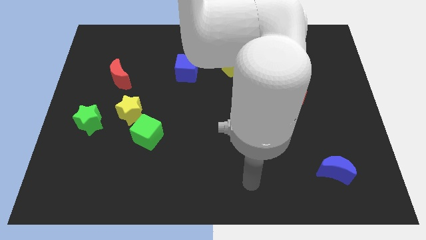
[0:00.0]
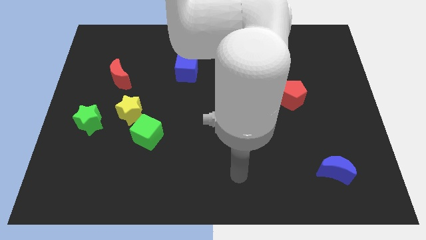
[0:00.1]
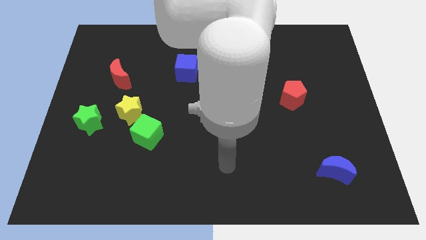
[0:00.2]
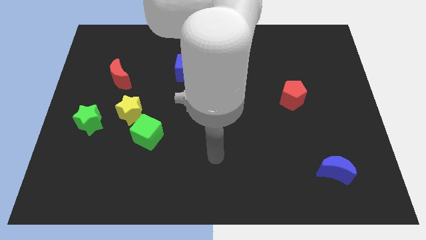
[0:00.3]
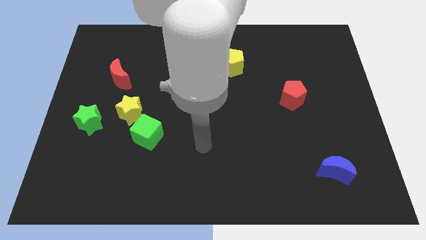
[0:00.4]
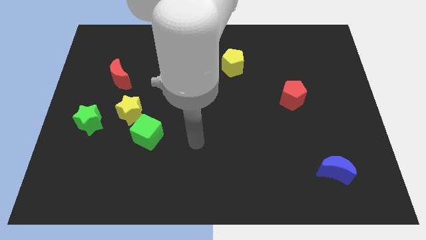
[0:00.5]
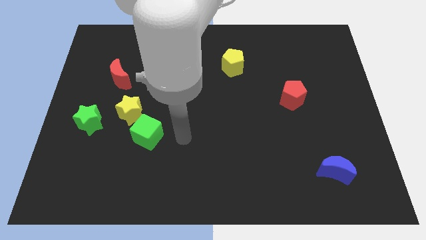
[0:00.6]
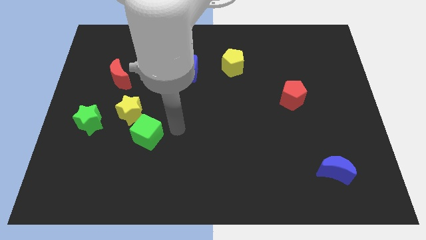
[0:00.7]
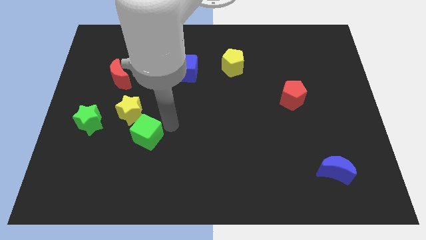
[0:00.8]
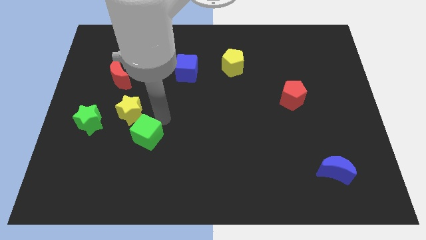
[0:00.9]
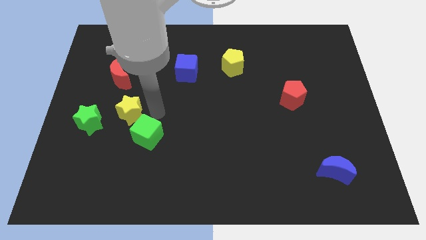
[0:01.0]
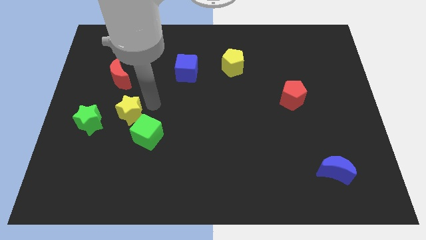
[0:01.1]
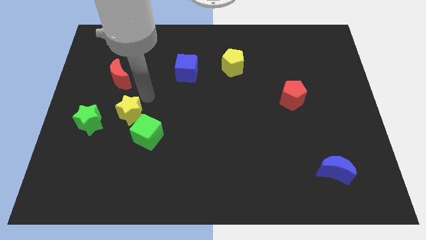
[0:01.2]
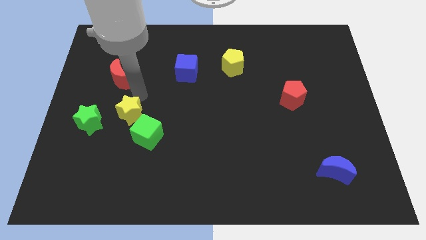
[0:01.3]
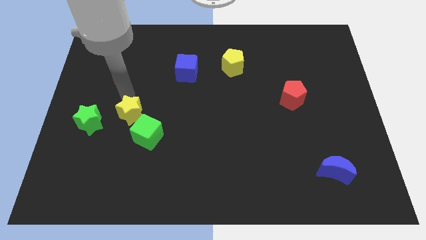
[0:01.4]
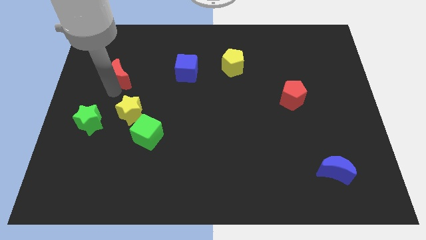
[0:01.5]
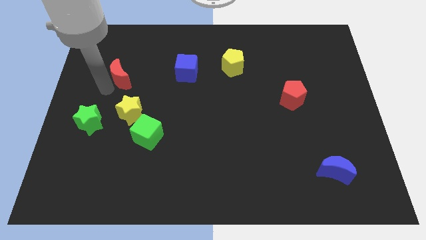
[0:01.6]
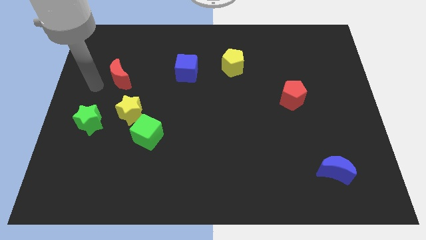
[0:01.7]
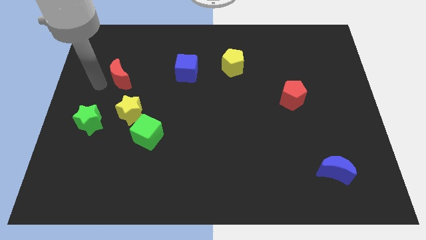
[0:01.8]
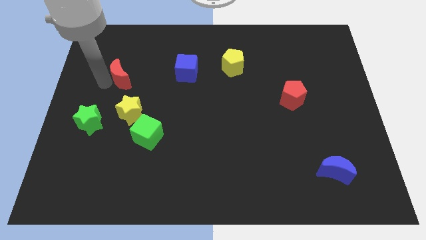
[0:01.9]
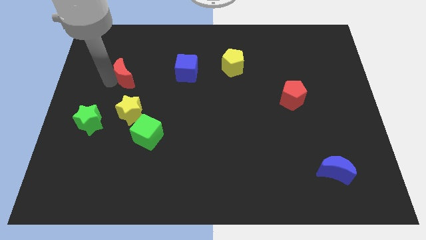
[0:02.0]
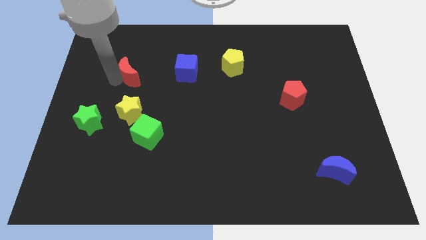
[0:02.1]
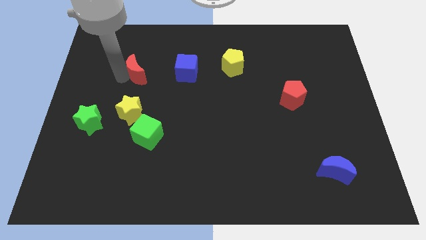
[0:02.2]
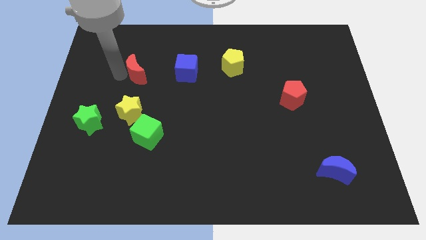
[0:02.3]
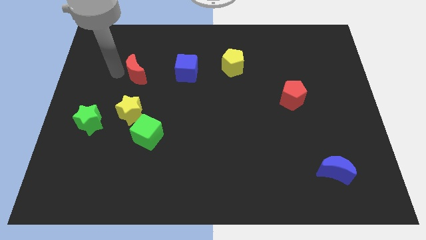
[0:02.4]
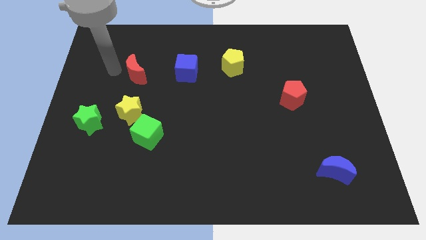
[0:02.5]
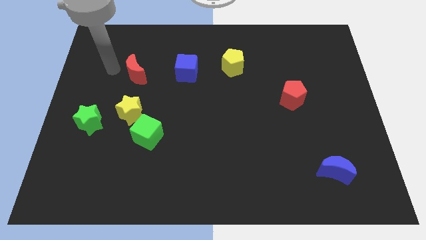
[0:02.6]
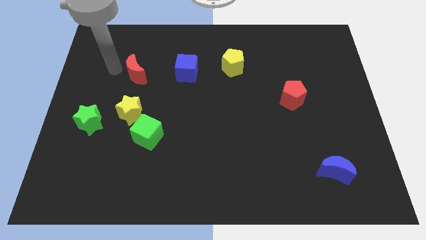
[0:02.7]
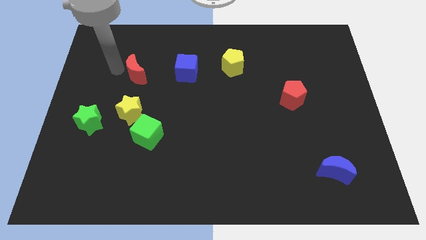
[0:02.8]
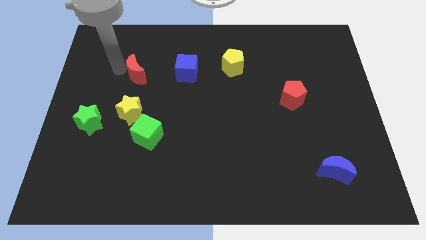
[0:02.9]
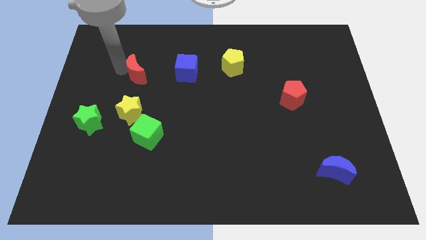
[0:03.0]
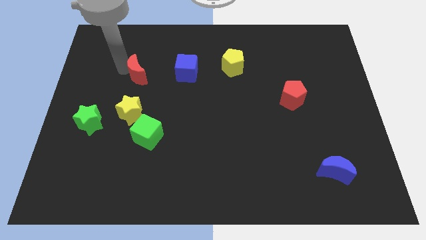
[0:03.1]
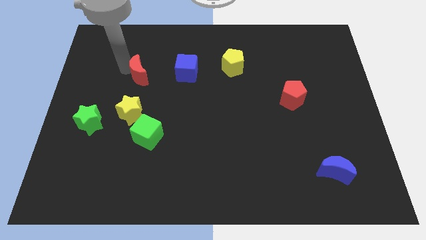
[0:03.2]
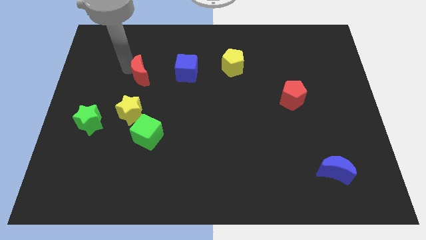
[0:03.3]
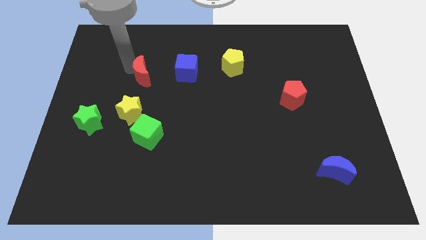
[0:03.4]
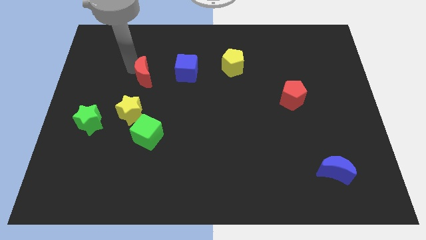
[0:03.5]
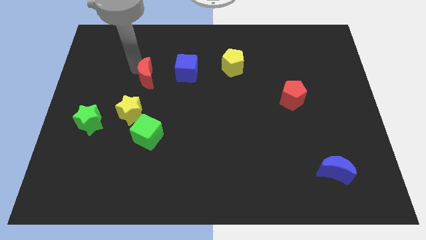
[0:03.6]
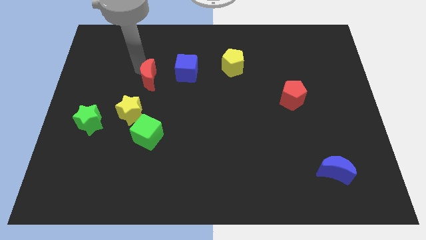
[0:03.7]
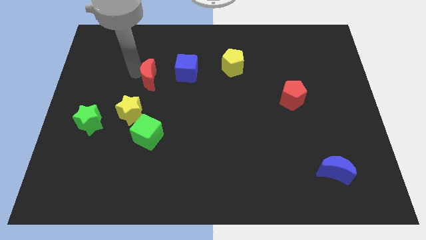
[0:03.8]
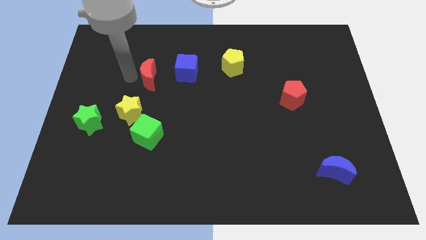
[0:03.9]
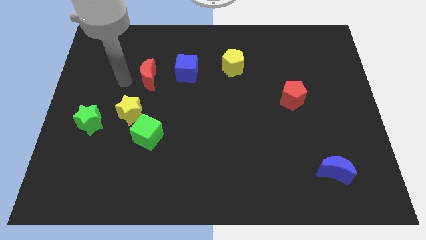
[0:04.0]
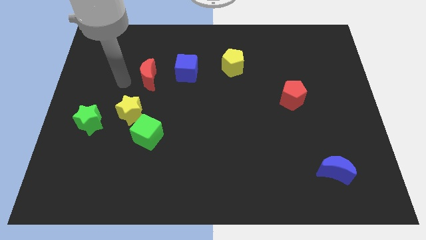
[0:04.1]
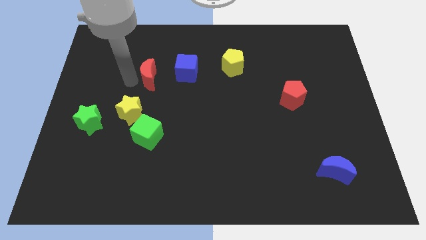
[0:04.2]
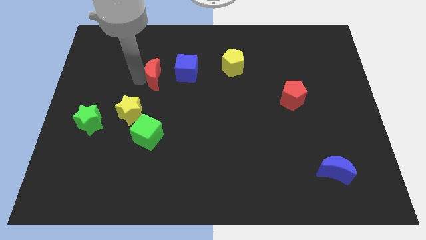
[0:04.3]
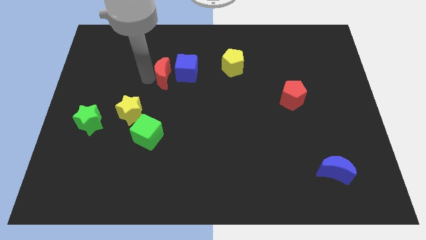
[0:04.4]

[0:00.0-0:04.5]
push the red moon next to the blue cube

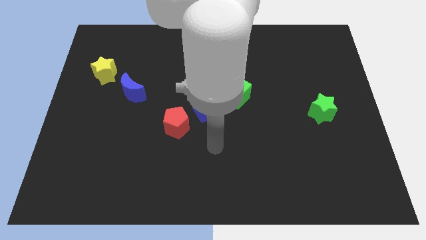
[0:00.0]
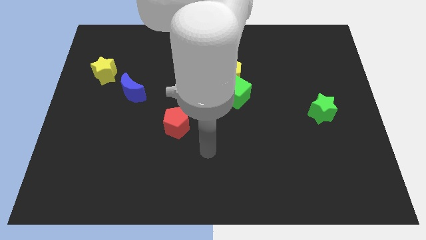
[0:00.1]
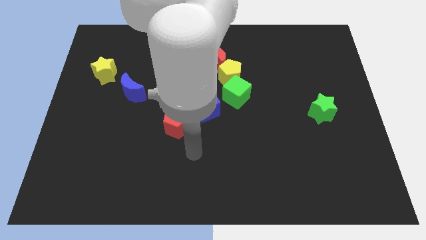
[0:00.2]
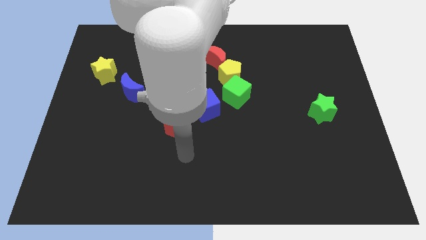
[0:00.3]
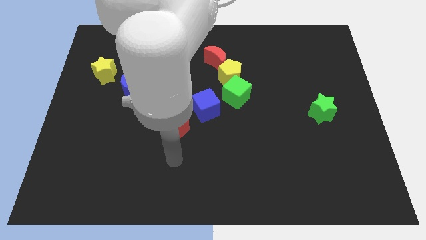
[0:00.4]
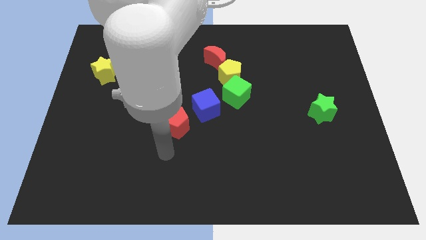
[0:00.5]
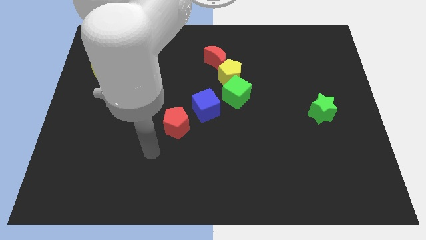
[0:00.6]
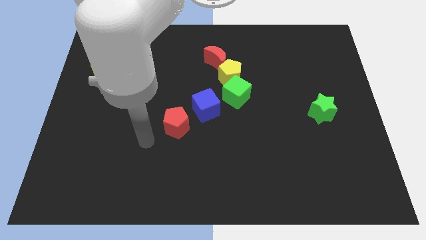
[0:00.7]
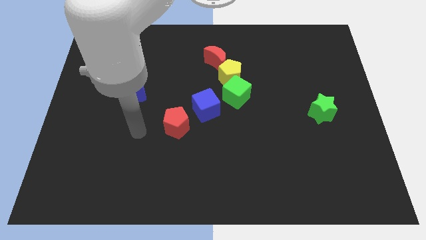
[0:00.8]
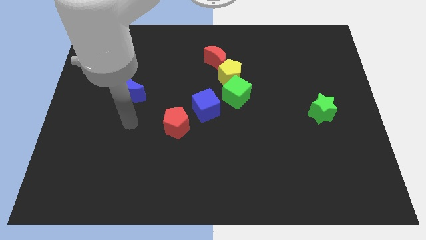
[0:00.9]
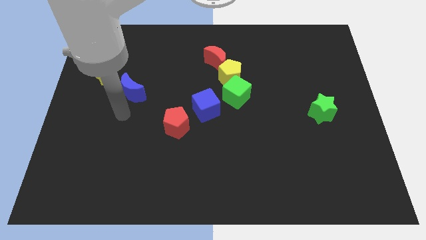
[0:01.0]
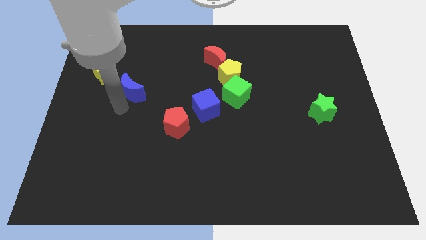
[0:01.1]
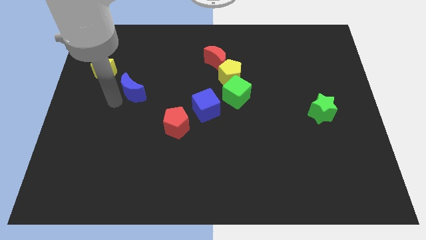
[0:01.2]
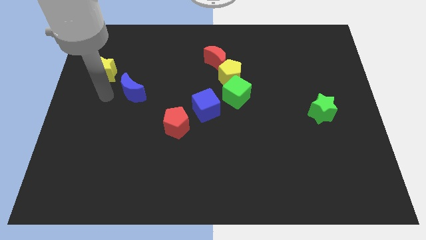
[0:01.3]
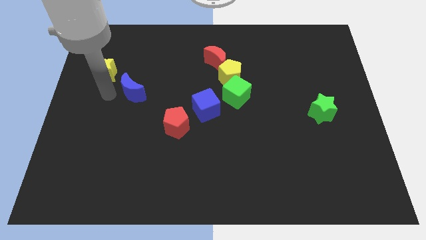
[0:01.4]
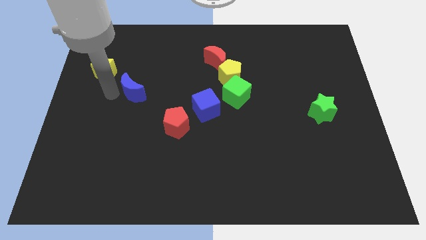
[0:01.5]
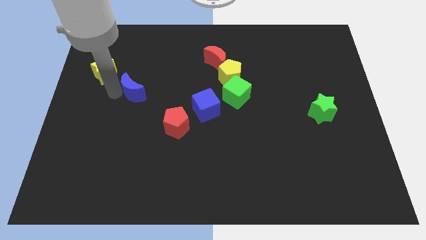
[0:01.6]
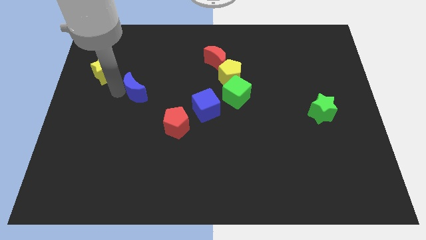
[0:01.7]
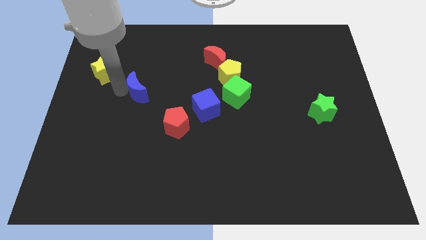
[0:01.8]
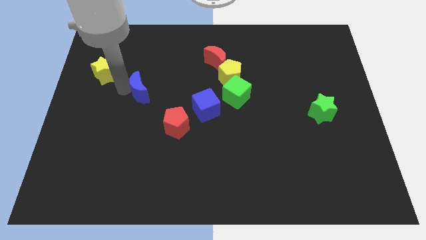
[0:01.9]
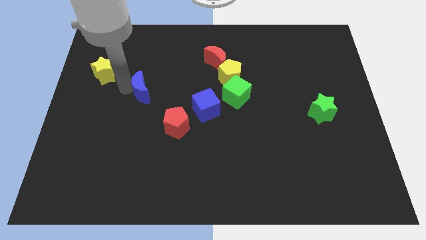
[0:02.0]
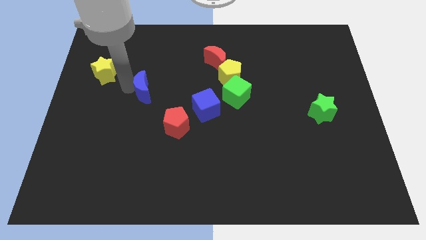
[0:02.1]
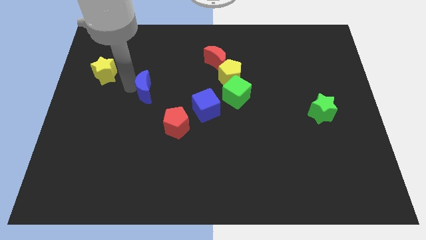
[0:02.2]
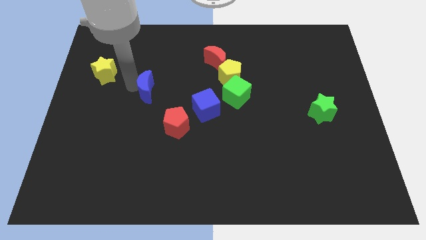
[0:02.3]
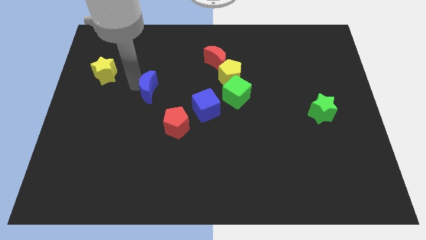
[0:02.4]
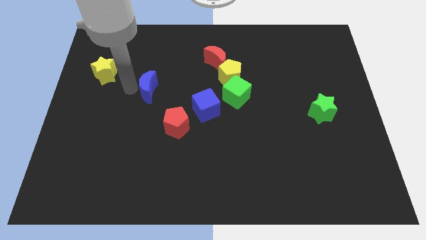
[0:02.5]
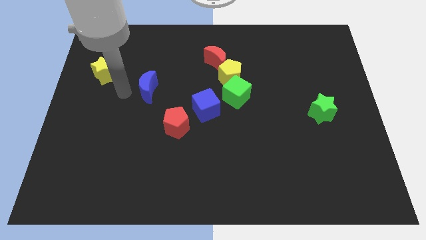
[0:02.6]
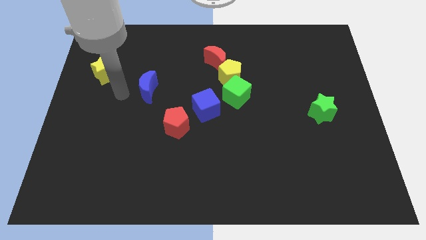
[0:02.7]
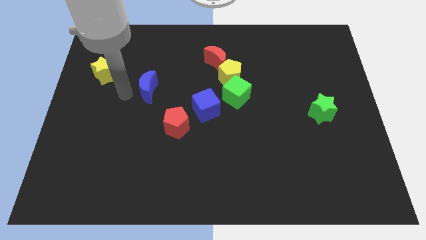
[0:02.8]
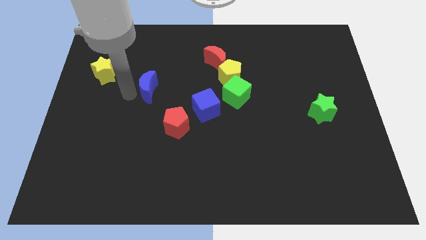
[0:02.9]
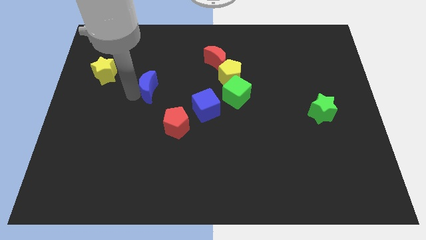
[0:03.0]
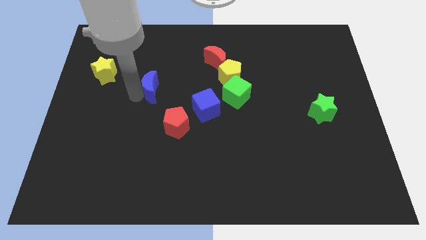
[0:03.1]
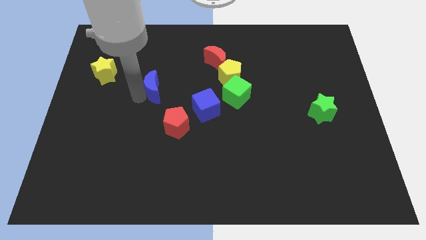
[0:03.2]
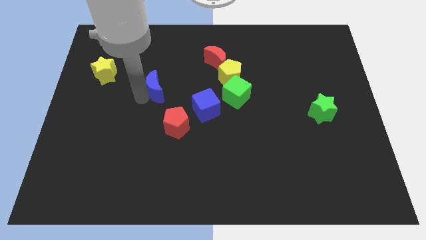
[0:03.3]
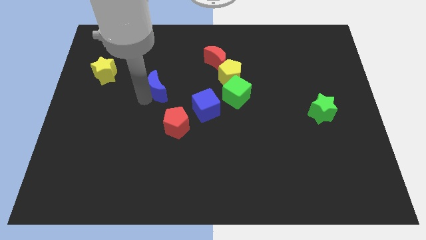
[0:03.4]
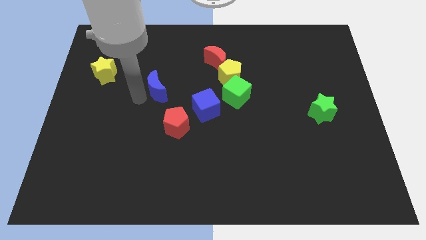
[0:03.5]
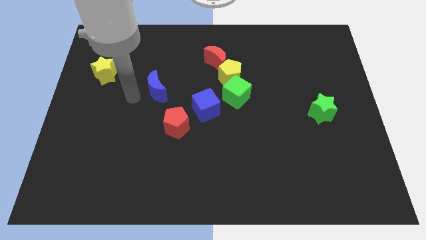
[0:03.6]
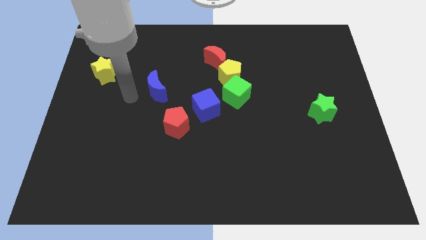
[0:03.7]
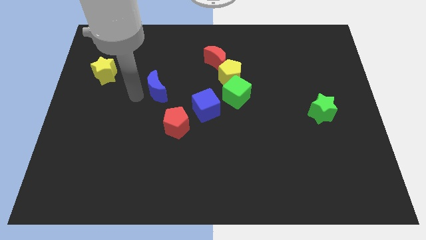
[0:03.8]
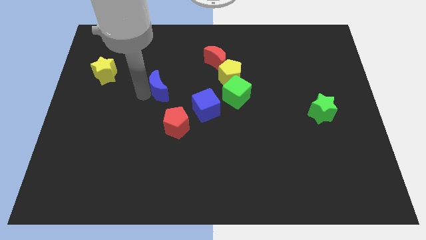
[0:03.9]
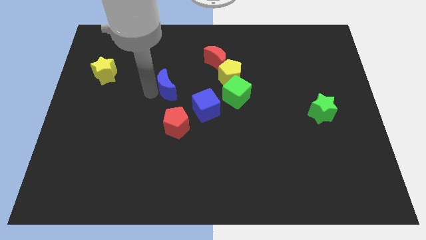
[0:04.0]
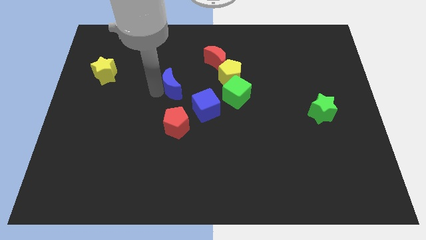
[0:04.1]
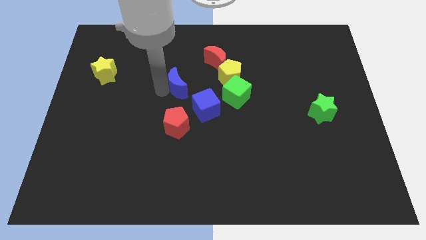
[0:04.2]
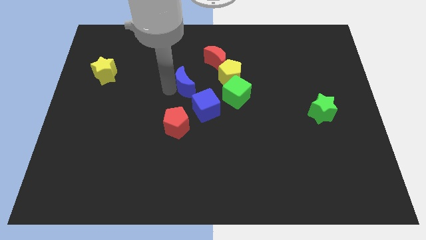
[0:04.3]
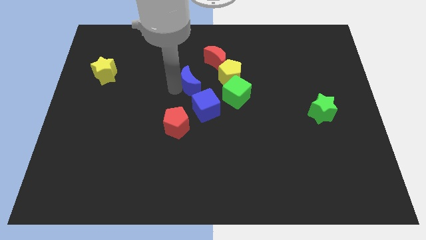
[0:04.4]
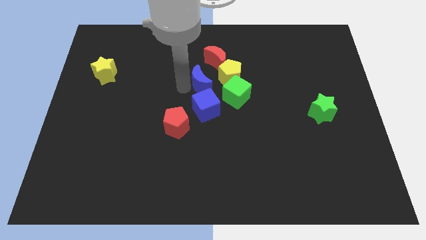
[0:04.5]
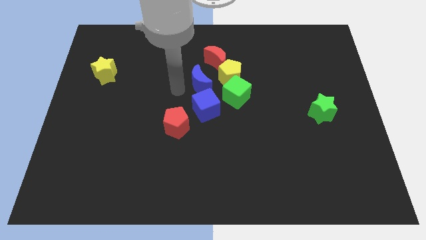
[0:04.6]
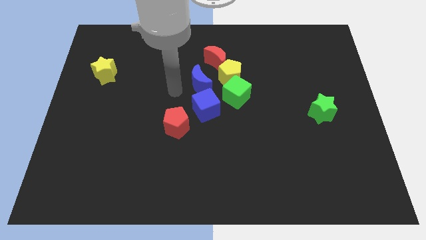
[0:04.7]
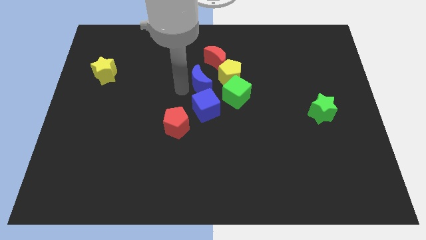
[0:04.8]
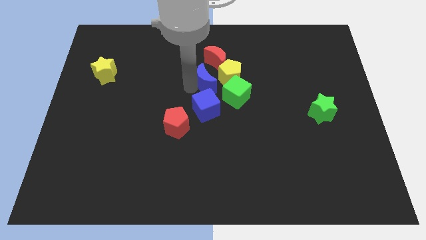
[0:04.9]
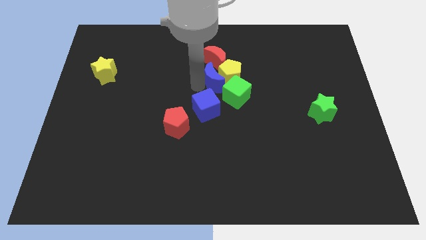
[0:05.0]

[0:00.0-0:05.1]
slide the blue moon towards the yellow pentagon
